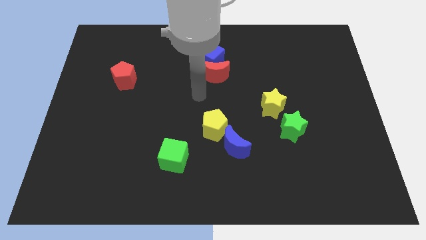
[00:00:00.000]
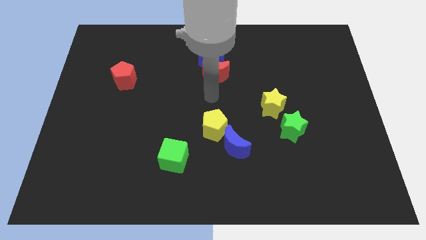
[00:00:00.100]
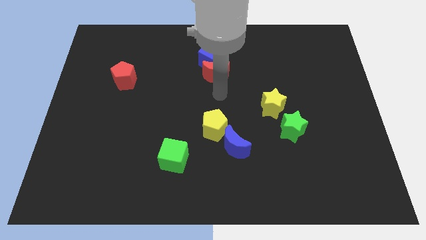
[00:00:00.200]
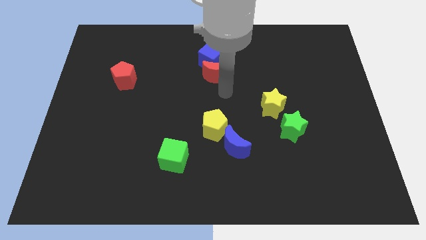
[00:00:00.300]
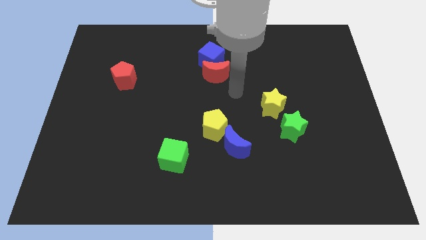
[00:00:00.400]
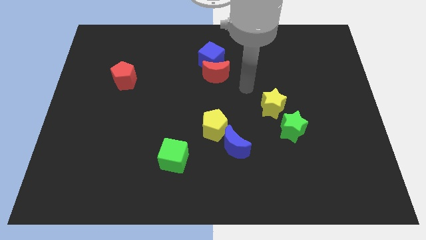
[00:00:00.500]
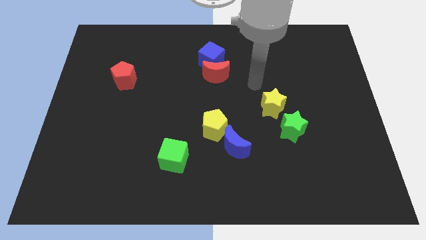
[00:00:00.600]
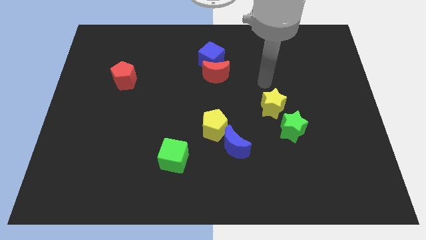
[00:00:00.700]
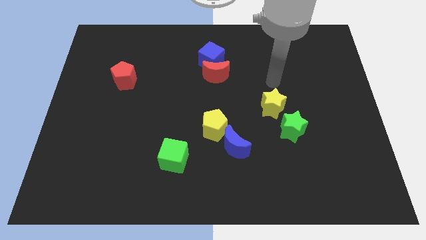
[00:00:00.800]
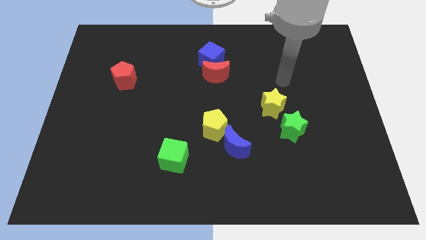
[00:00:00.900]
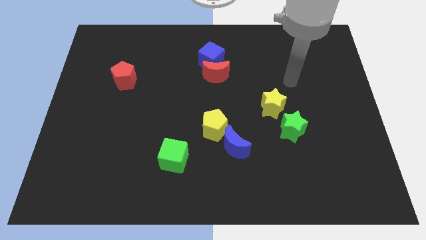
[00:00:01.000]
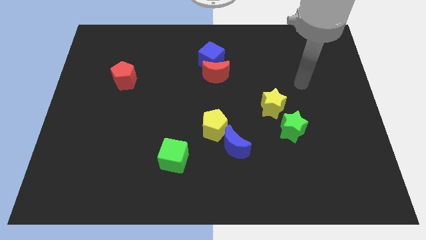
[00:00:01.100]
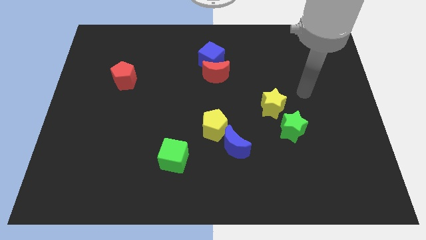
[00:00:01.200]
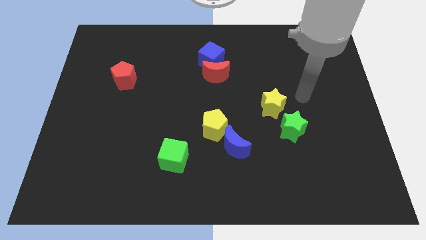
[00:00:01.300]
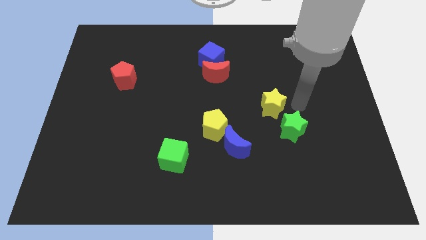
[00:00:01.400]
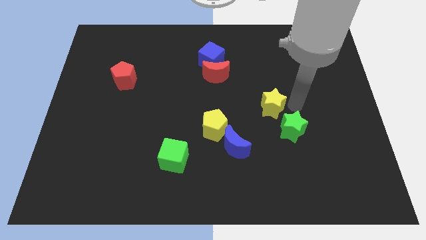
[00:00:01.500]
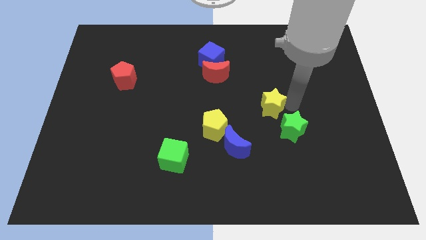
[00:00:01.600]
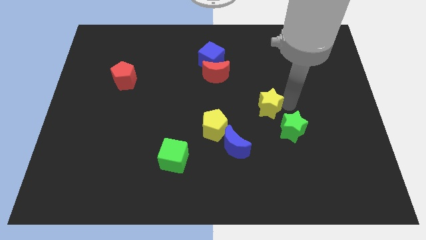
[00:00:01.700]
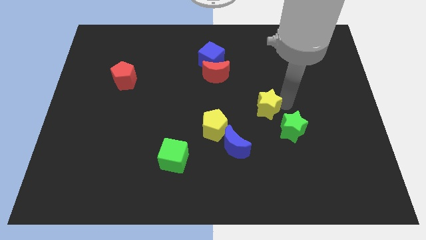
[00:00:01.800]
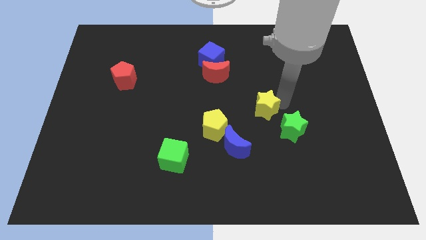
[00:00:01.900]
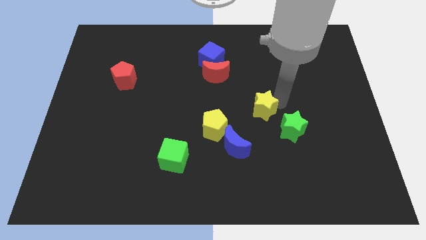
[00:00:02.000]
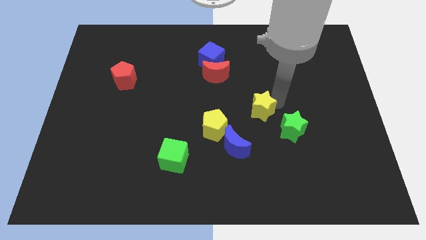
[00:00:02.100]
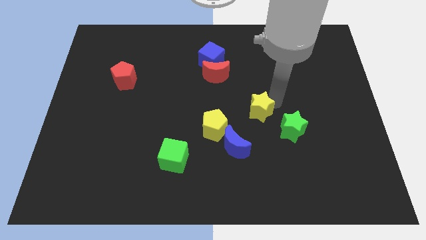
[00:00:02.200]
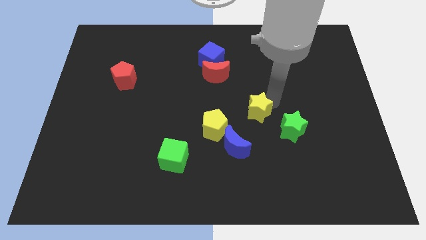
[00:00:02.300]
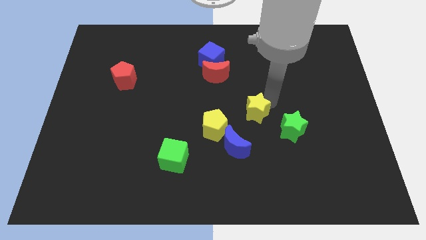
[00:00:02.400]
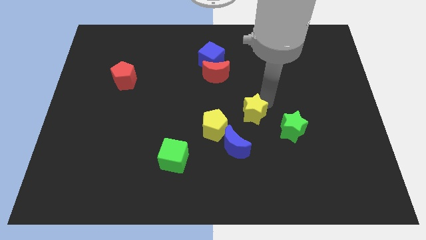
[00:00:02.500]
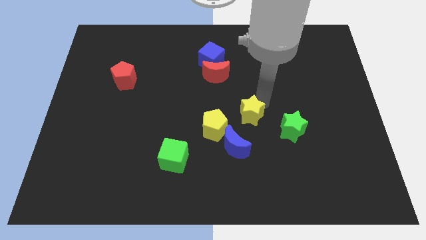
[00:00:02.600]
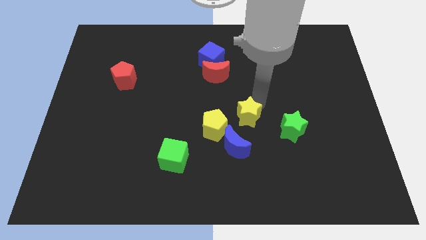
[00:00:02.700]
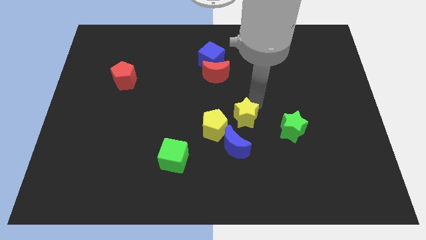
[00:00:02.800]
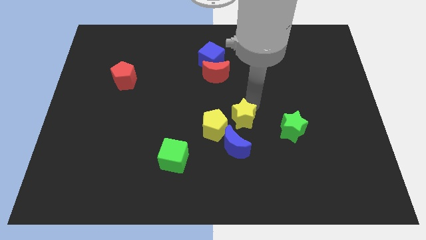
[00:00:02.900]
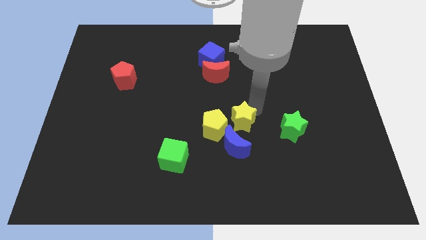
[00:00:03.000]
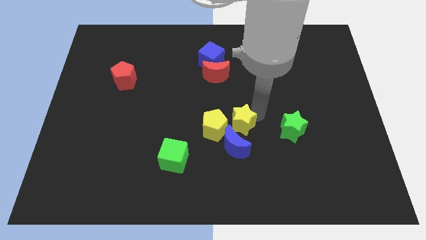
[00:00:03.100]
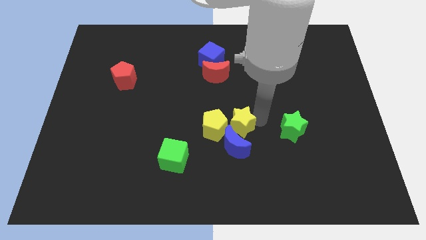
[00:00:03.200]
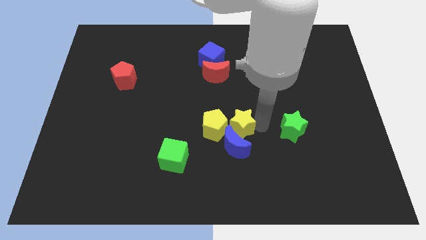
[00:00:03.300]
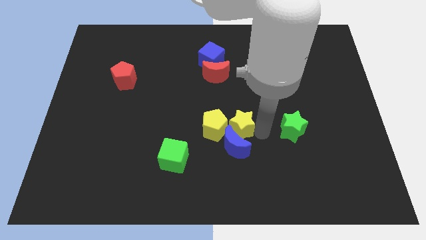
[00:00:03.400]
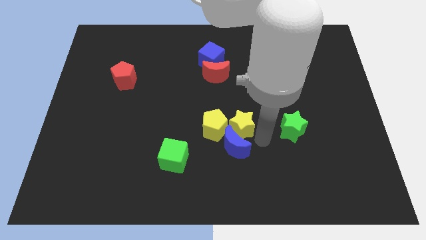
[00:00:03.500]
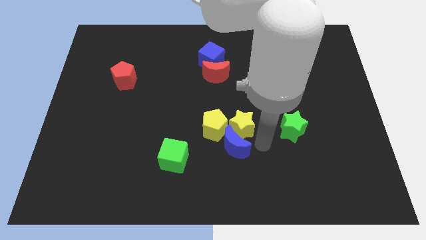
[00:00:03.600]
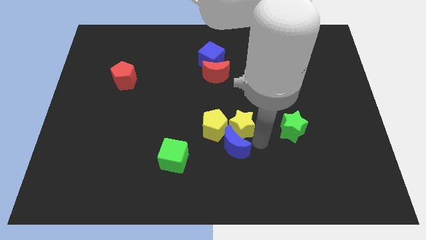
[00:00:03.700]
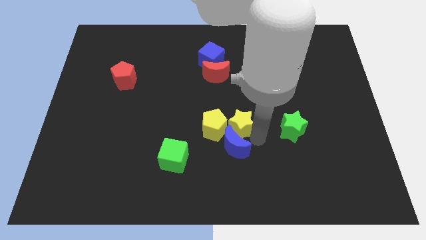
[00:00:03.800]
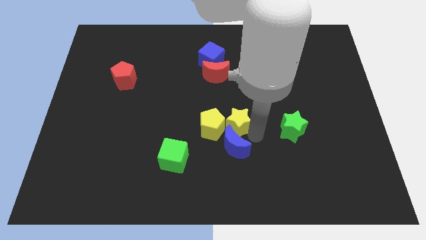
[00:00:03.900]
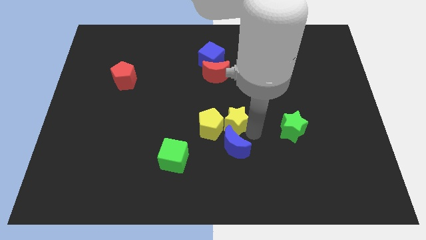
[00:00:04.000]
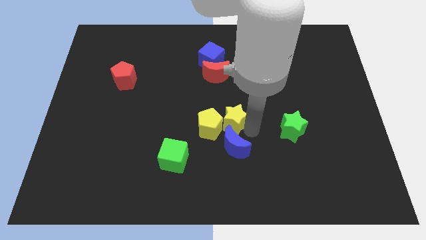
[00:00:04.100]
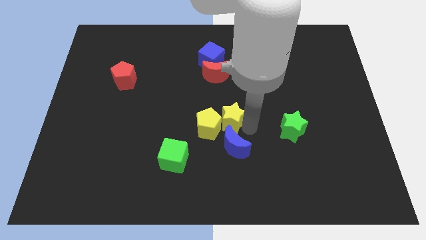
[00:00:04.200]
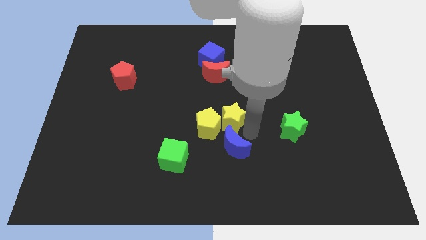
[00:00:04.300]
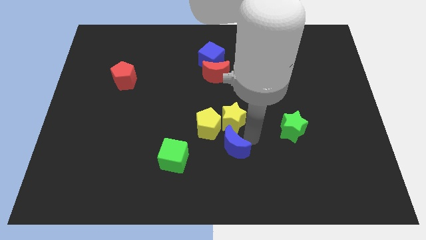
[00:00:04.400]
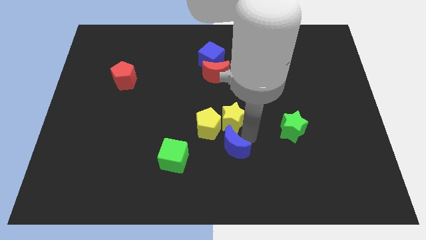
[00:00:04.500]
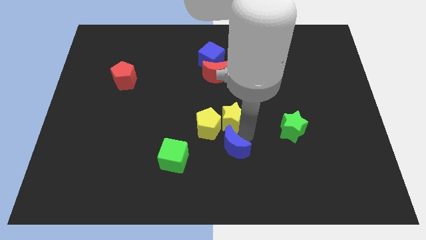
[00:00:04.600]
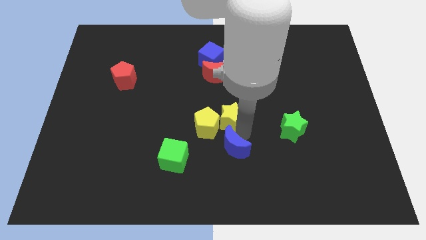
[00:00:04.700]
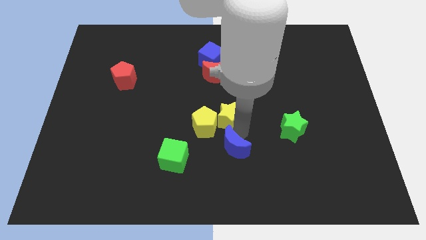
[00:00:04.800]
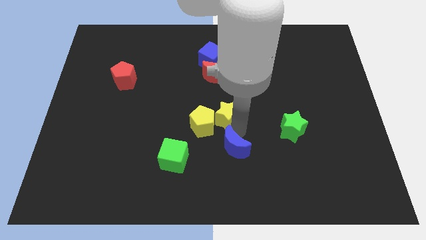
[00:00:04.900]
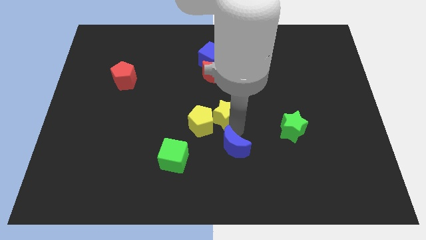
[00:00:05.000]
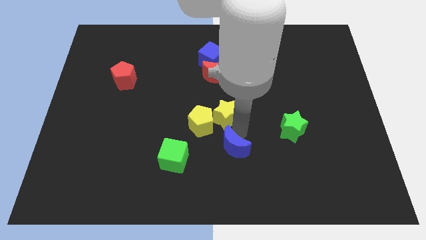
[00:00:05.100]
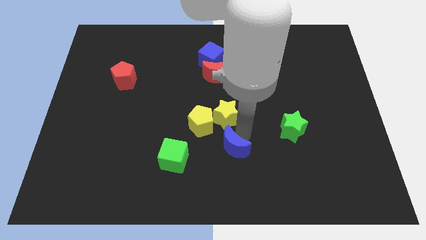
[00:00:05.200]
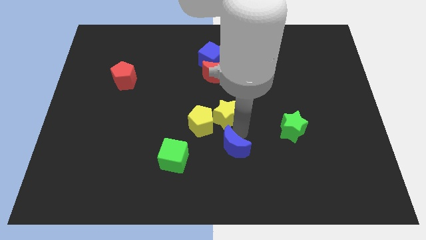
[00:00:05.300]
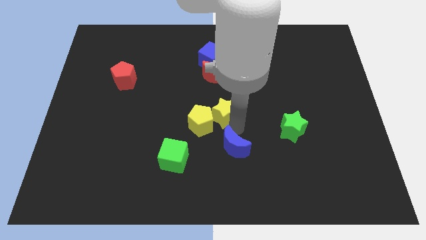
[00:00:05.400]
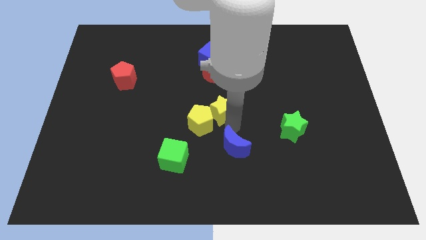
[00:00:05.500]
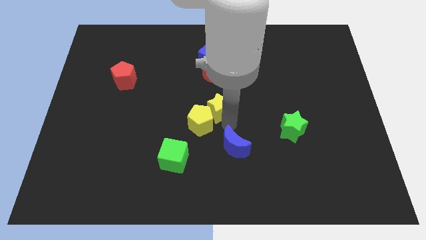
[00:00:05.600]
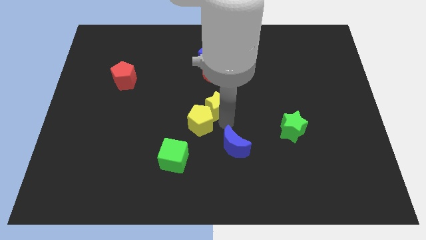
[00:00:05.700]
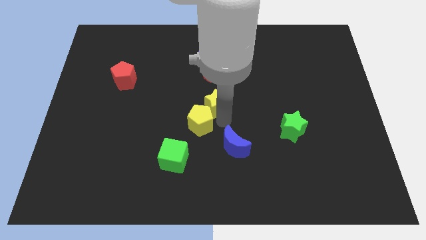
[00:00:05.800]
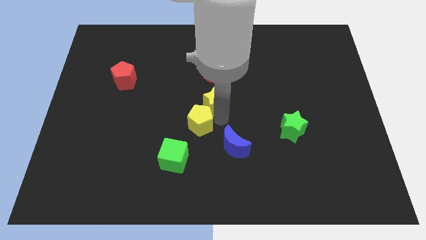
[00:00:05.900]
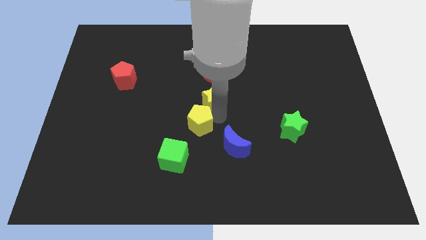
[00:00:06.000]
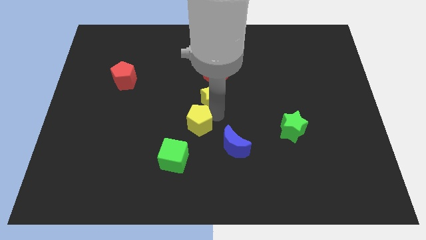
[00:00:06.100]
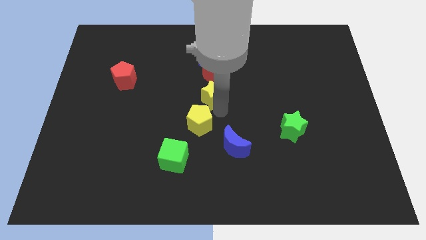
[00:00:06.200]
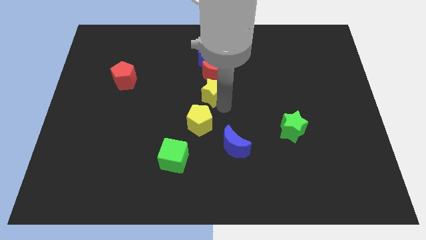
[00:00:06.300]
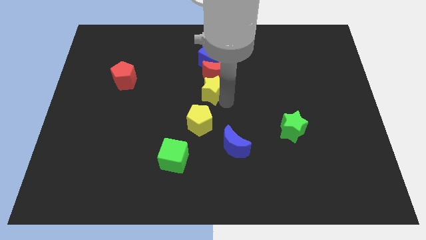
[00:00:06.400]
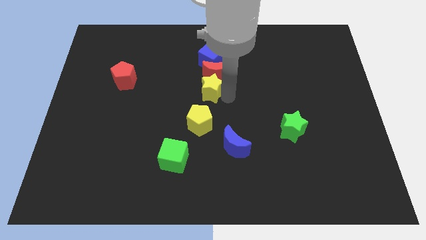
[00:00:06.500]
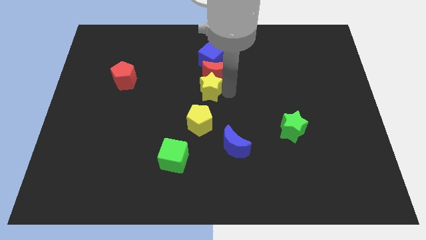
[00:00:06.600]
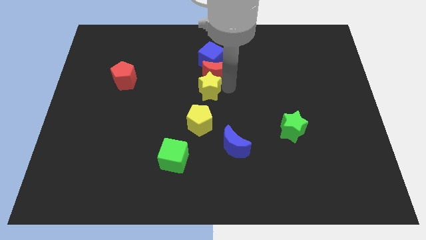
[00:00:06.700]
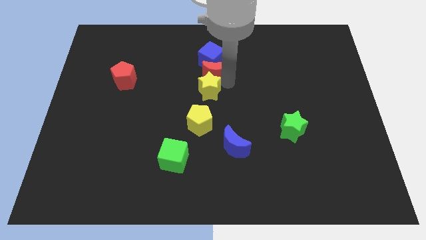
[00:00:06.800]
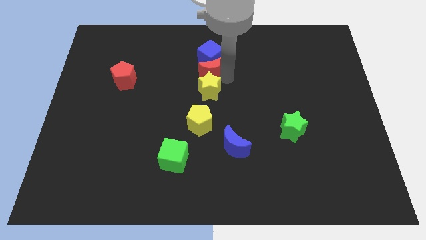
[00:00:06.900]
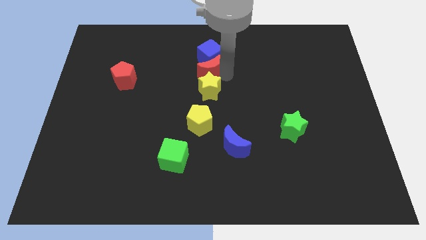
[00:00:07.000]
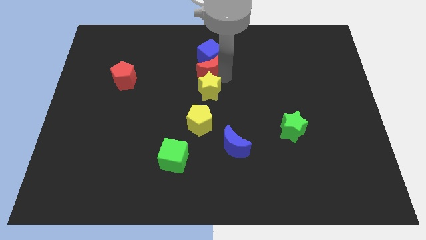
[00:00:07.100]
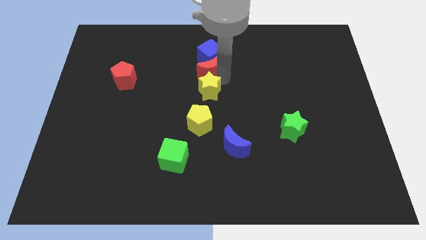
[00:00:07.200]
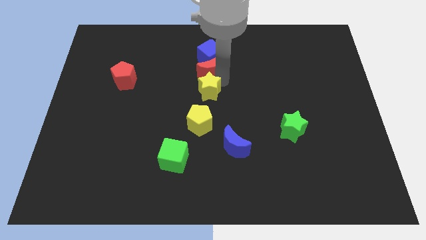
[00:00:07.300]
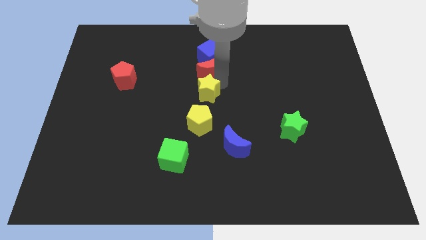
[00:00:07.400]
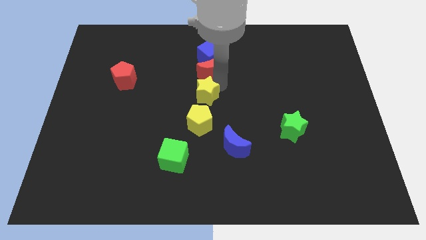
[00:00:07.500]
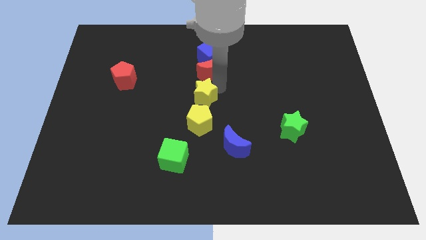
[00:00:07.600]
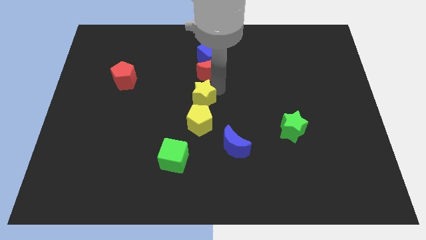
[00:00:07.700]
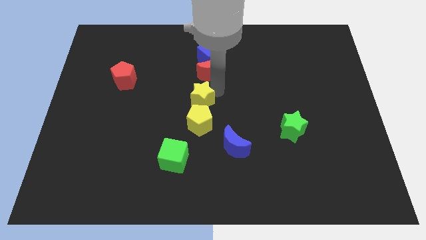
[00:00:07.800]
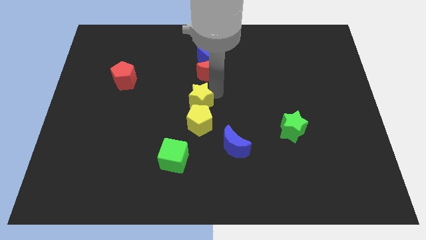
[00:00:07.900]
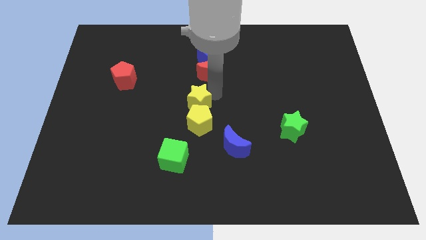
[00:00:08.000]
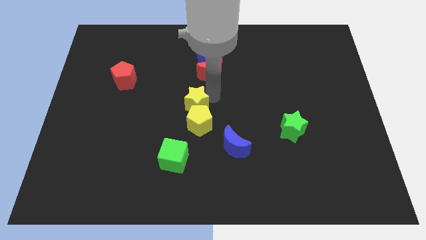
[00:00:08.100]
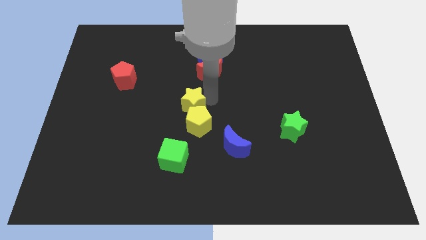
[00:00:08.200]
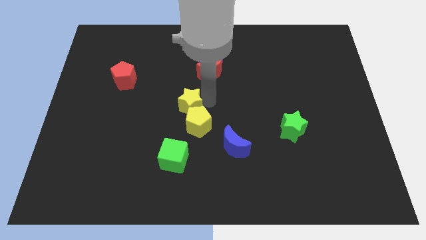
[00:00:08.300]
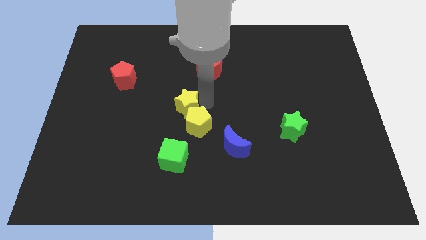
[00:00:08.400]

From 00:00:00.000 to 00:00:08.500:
slide the yellow star to the left
